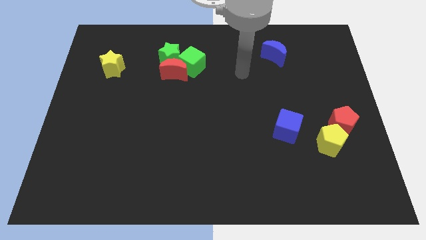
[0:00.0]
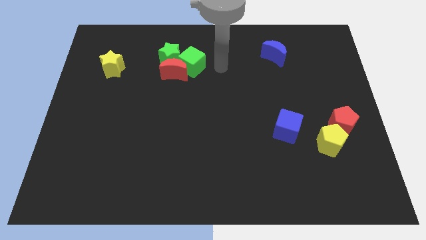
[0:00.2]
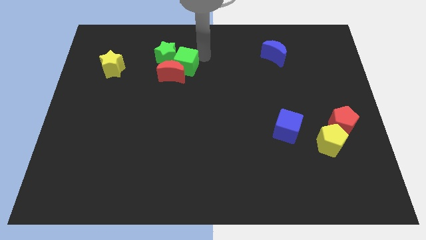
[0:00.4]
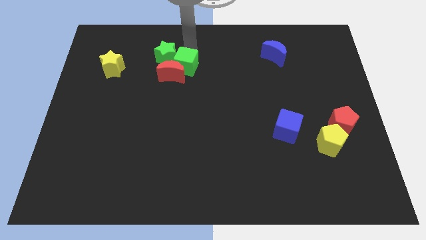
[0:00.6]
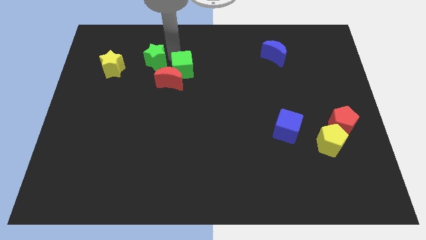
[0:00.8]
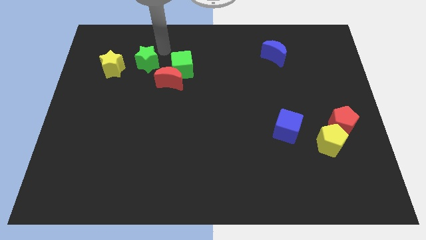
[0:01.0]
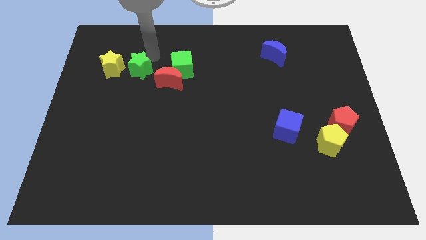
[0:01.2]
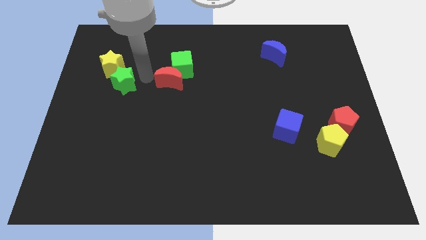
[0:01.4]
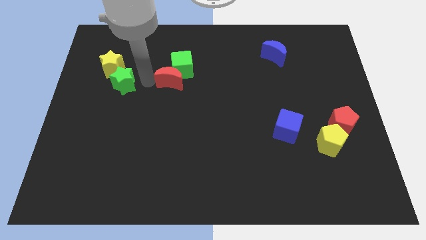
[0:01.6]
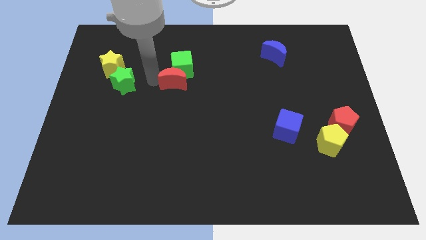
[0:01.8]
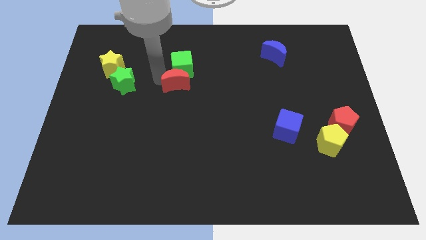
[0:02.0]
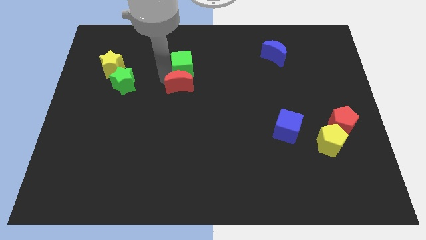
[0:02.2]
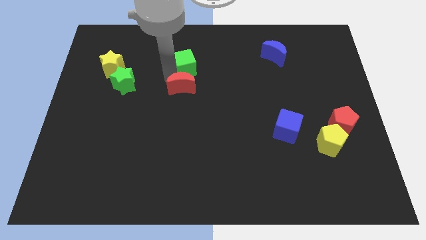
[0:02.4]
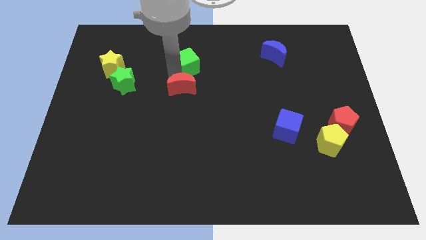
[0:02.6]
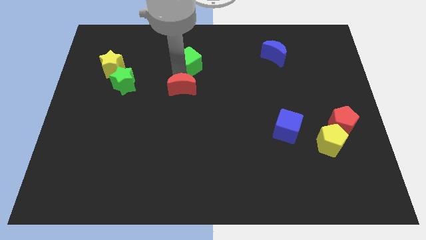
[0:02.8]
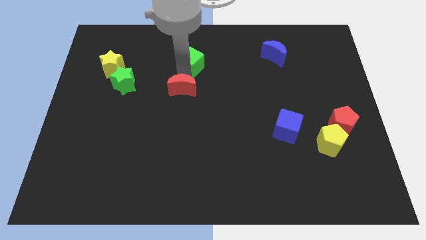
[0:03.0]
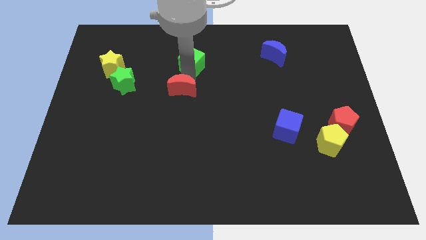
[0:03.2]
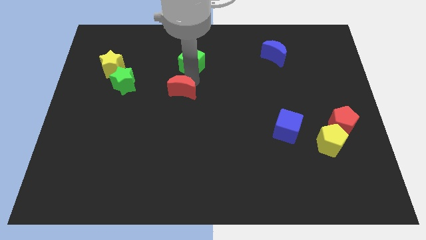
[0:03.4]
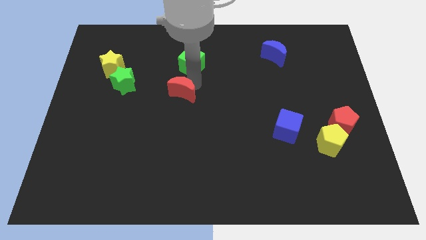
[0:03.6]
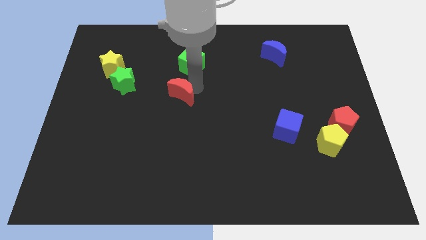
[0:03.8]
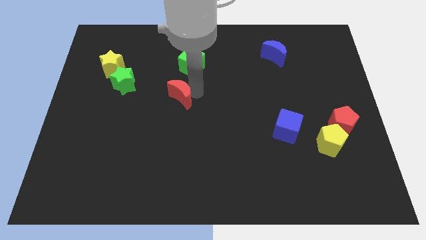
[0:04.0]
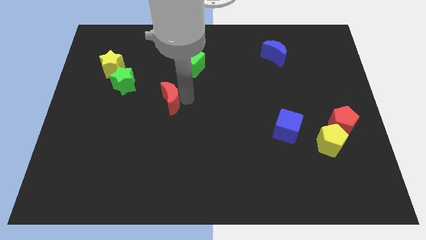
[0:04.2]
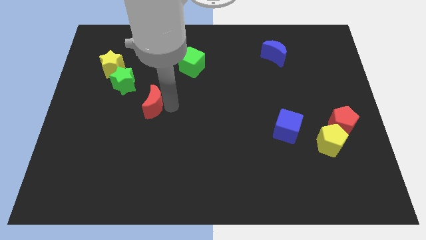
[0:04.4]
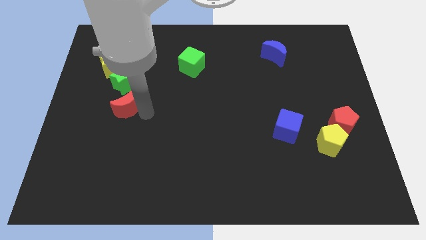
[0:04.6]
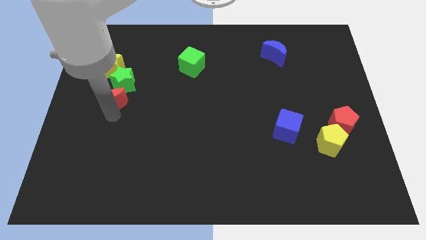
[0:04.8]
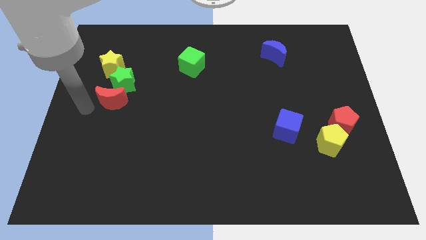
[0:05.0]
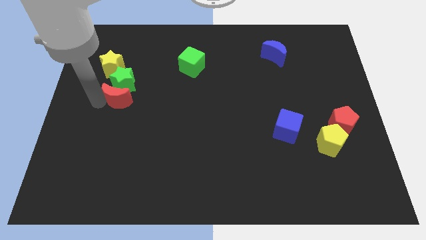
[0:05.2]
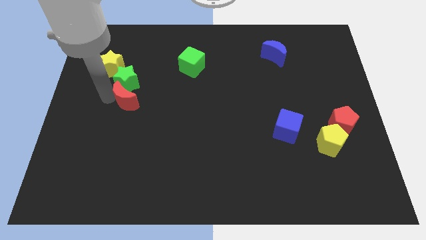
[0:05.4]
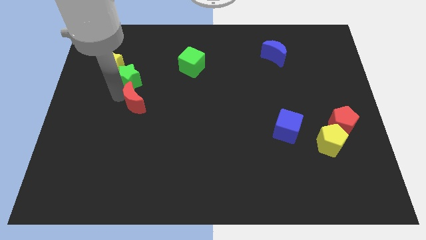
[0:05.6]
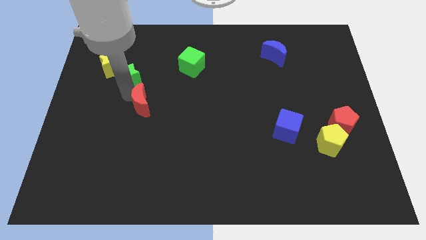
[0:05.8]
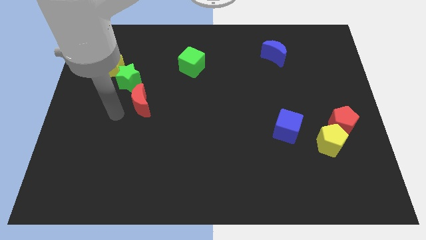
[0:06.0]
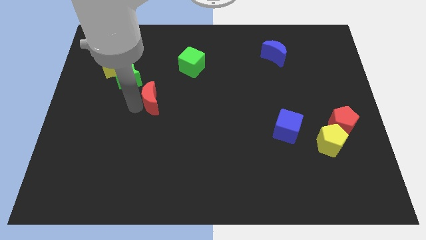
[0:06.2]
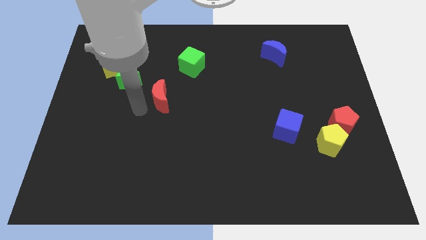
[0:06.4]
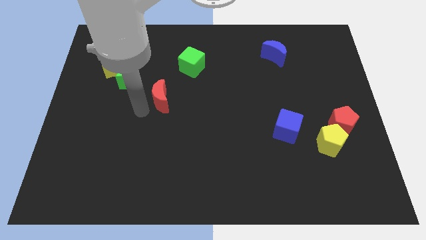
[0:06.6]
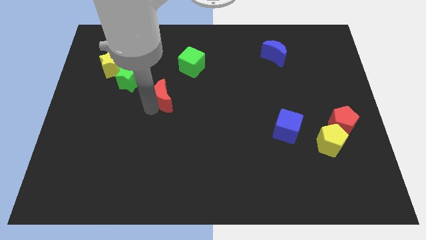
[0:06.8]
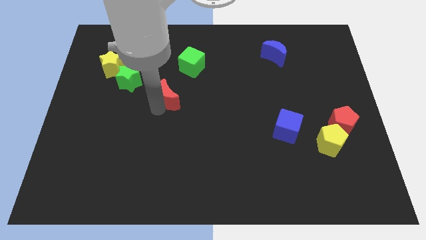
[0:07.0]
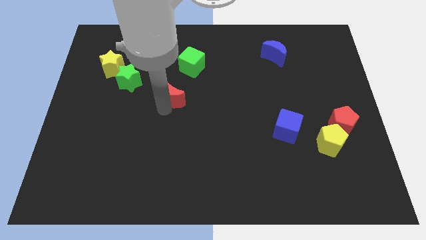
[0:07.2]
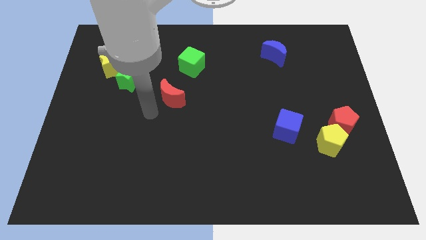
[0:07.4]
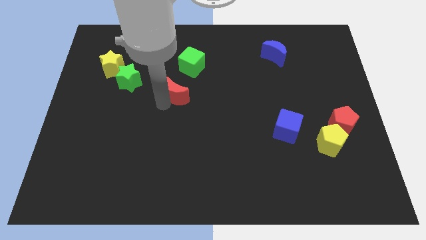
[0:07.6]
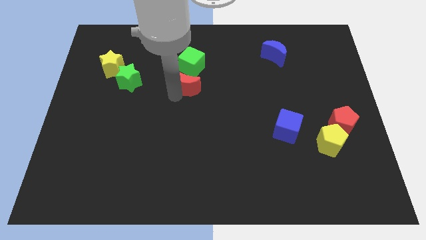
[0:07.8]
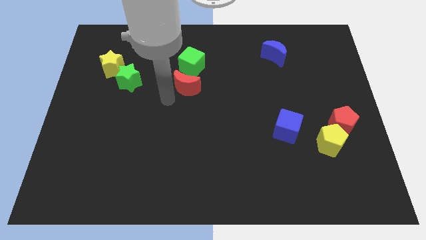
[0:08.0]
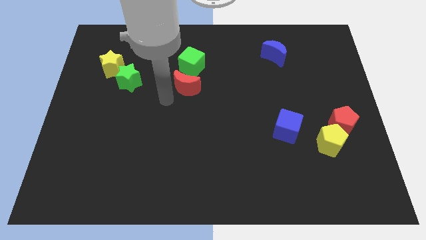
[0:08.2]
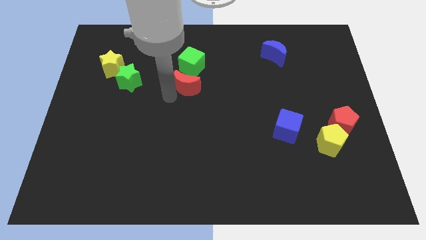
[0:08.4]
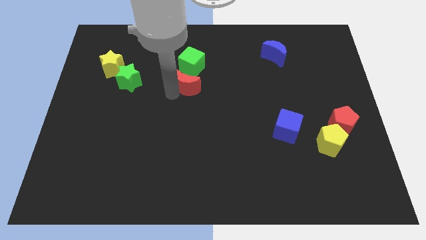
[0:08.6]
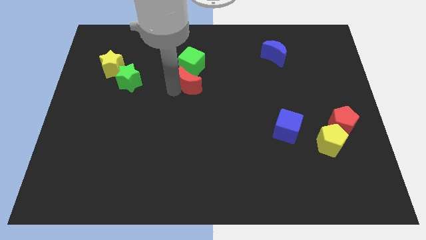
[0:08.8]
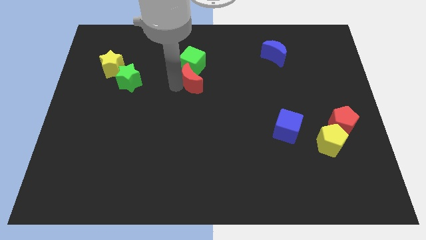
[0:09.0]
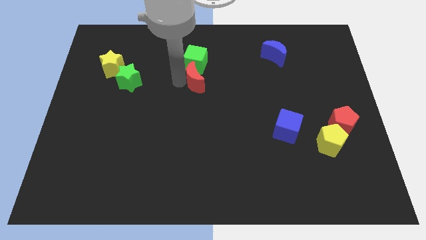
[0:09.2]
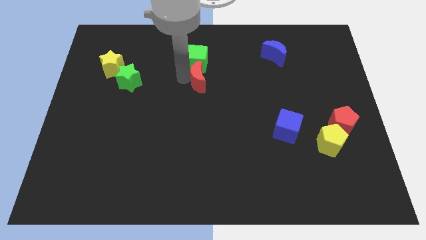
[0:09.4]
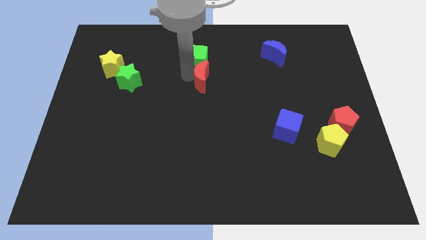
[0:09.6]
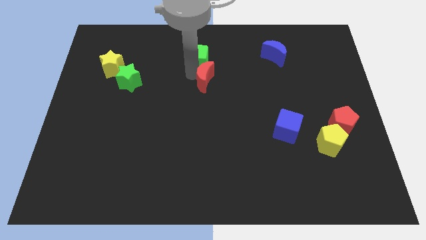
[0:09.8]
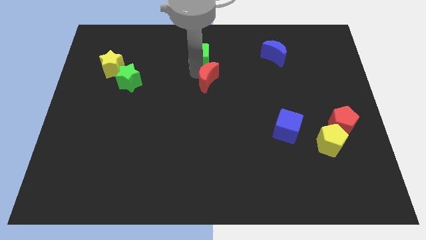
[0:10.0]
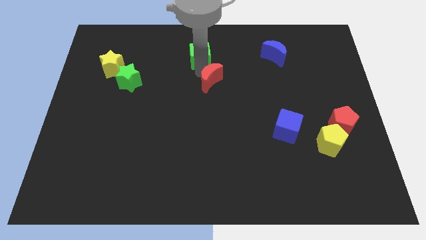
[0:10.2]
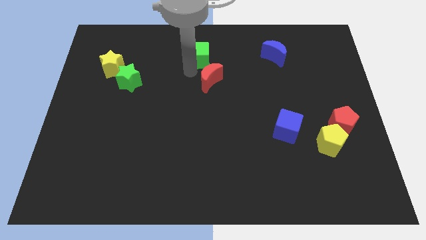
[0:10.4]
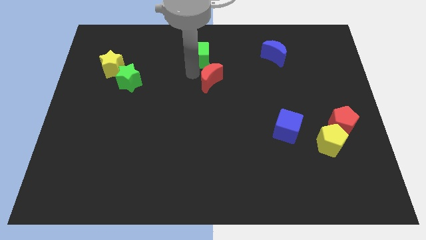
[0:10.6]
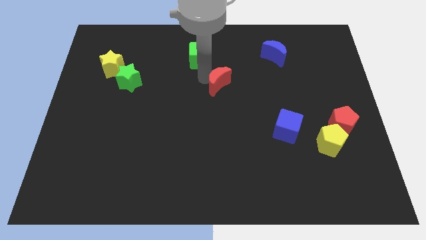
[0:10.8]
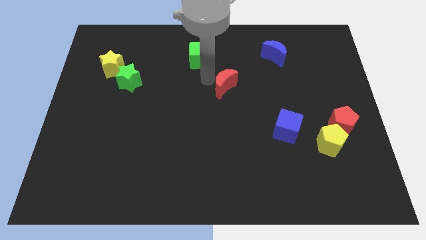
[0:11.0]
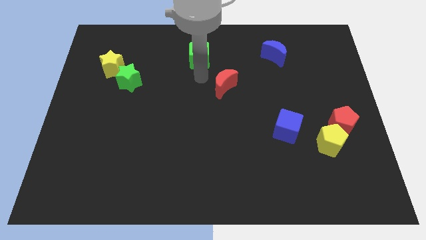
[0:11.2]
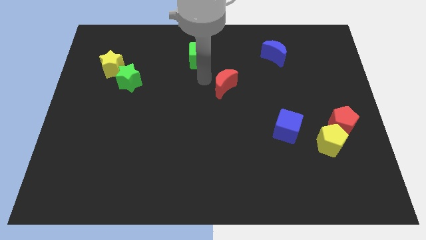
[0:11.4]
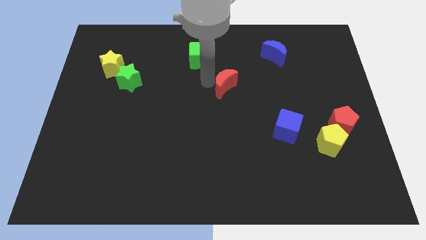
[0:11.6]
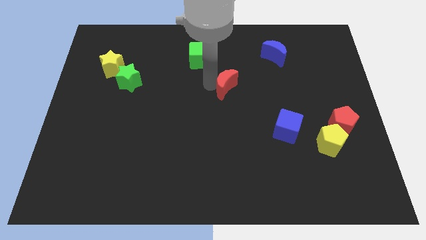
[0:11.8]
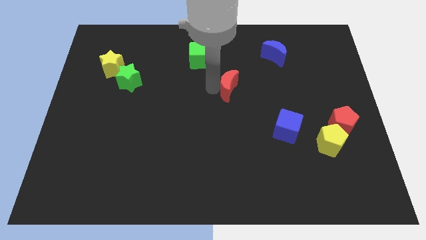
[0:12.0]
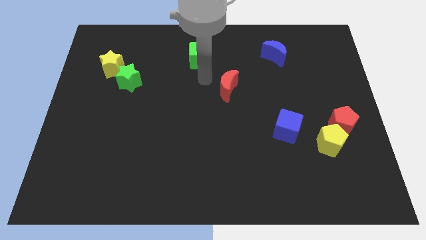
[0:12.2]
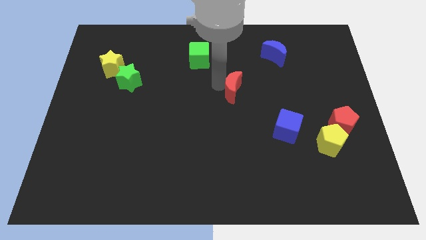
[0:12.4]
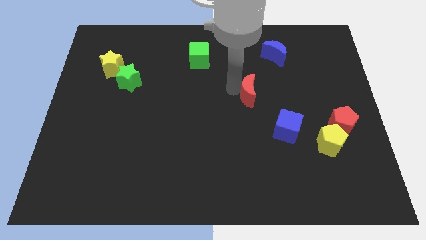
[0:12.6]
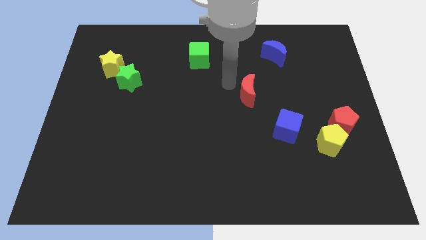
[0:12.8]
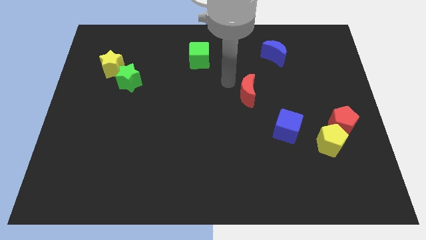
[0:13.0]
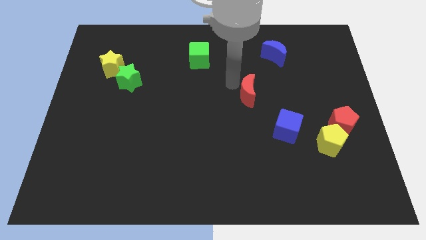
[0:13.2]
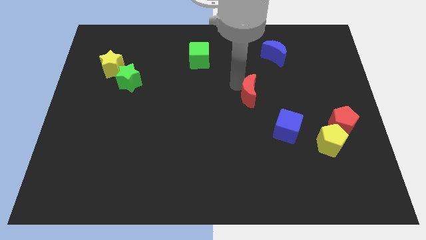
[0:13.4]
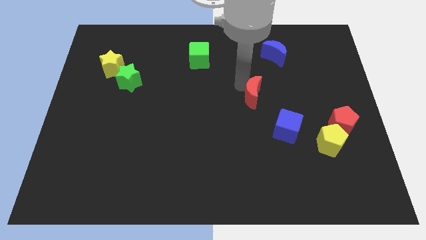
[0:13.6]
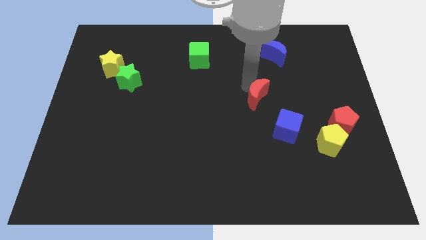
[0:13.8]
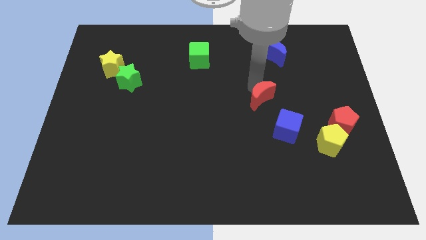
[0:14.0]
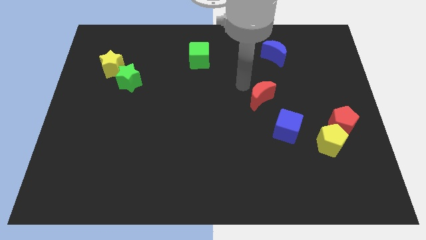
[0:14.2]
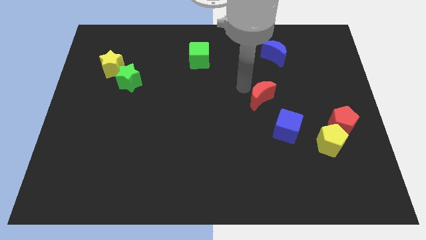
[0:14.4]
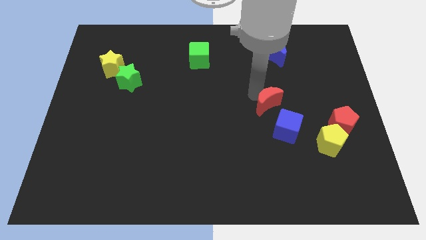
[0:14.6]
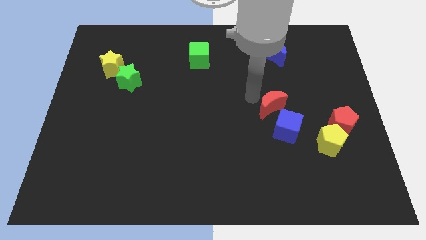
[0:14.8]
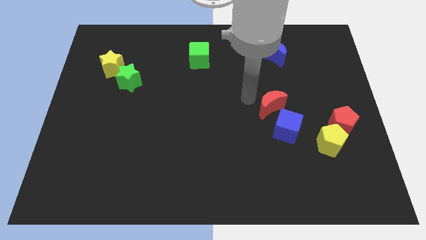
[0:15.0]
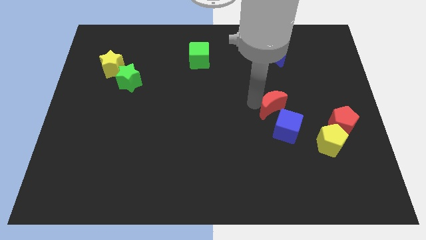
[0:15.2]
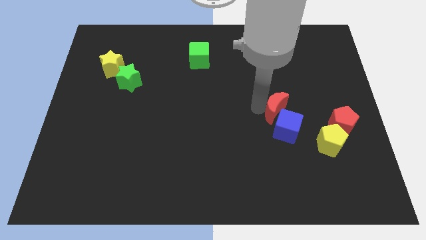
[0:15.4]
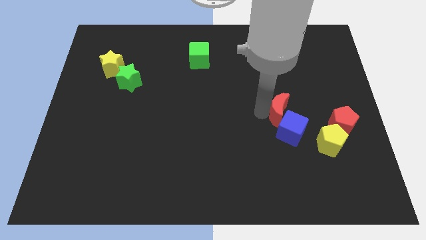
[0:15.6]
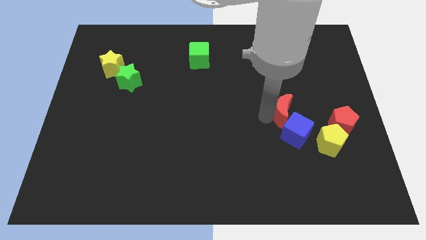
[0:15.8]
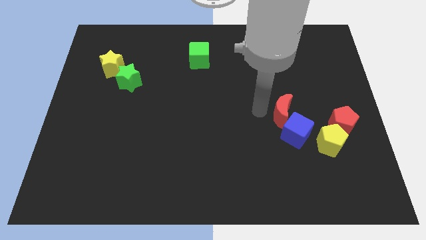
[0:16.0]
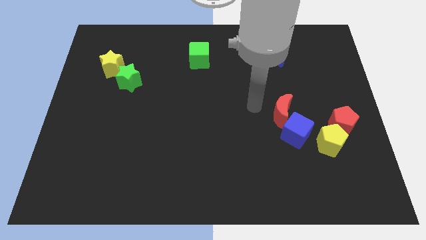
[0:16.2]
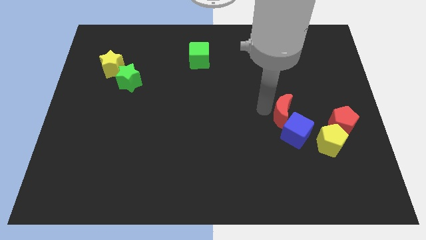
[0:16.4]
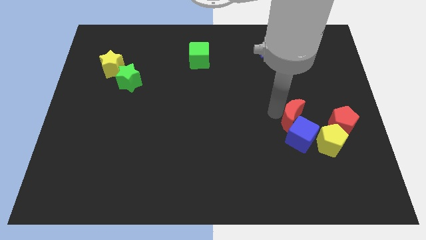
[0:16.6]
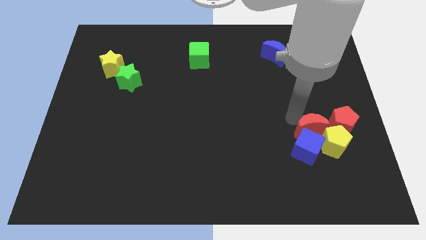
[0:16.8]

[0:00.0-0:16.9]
put the red moon next to the yellow pentagon
